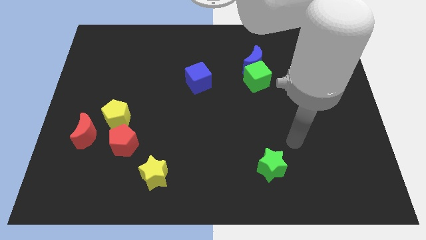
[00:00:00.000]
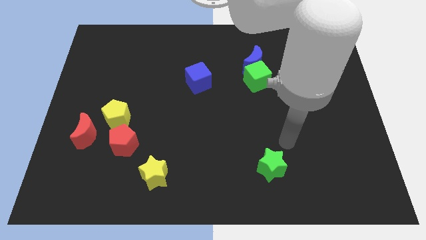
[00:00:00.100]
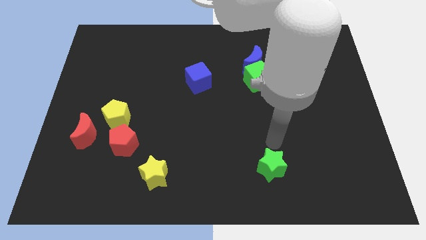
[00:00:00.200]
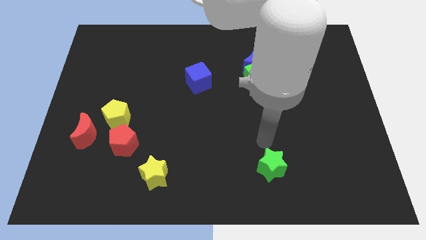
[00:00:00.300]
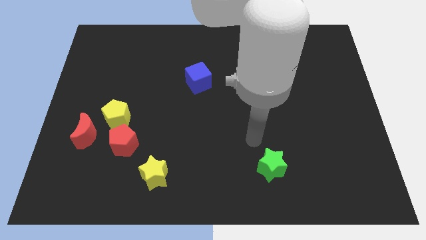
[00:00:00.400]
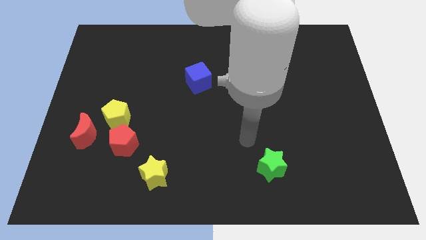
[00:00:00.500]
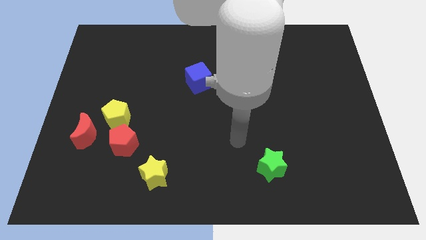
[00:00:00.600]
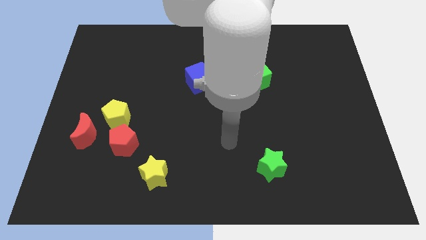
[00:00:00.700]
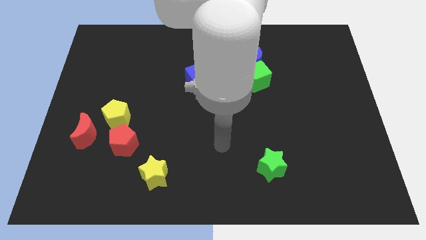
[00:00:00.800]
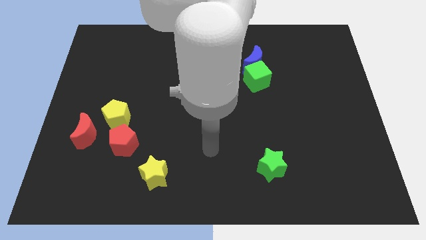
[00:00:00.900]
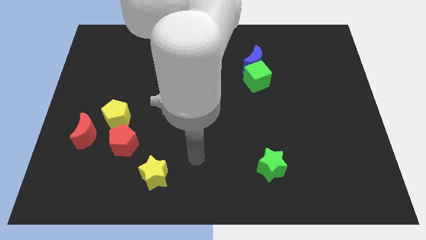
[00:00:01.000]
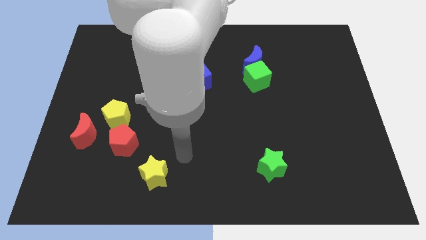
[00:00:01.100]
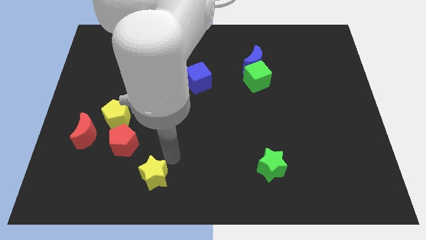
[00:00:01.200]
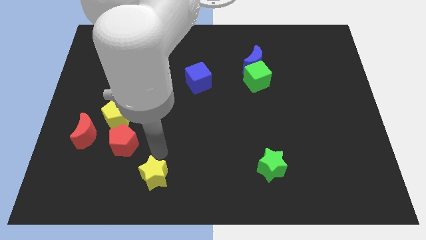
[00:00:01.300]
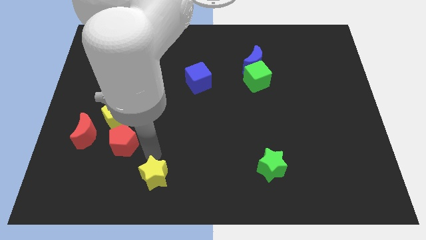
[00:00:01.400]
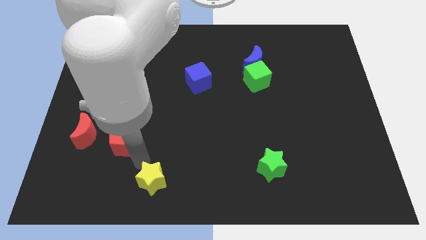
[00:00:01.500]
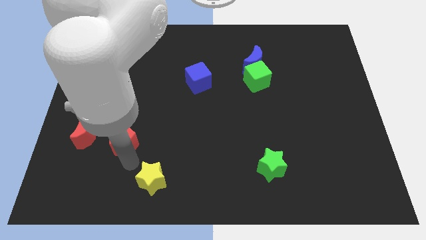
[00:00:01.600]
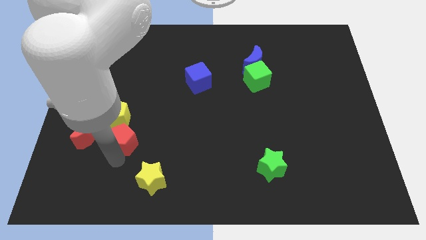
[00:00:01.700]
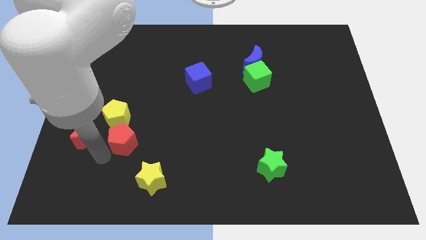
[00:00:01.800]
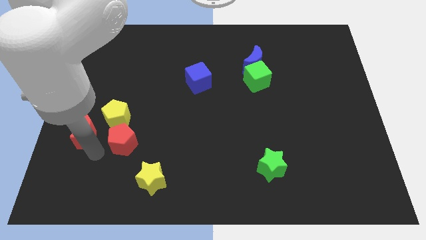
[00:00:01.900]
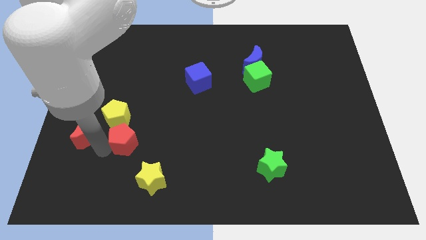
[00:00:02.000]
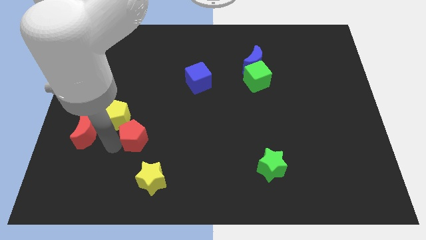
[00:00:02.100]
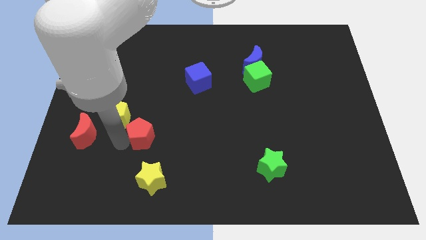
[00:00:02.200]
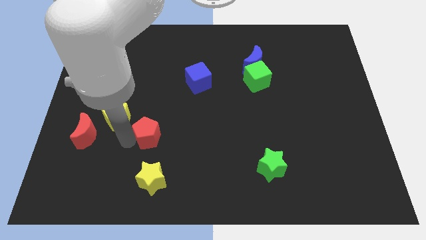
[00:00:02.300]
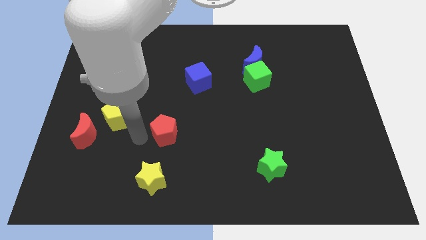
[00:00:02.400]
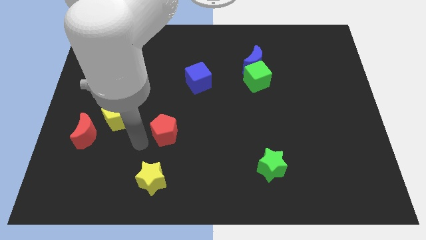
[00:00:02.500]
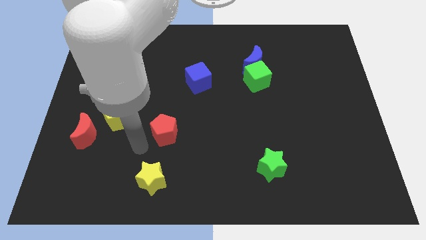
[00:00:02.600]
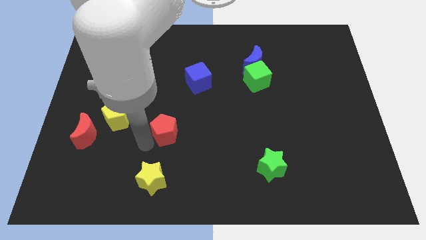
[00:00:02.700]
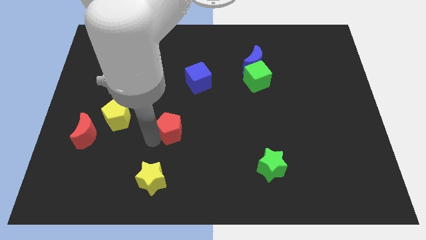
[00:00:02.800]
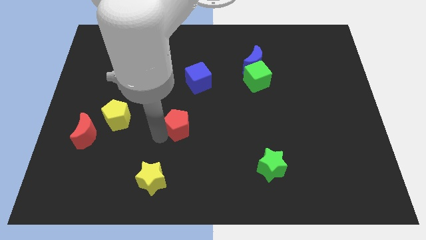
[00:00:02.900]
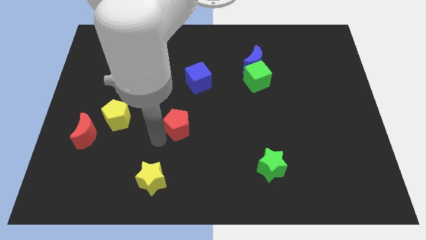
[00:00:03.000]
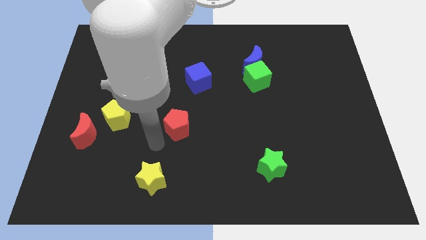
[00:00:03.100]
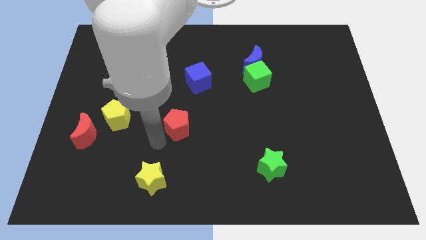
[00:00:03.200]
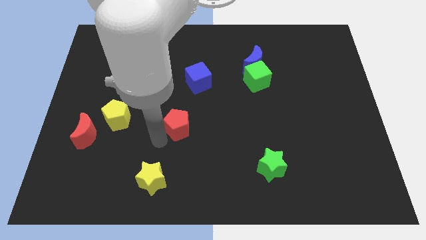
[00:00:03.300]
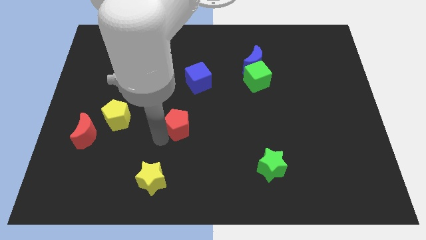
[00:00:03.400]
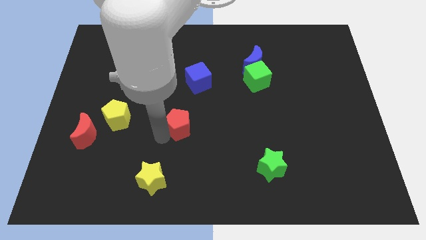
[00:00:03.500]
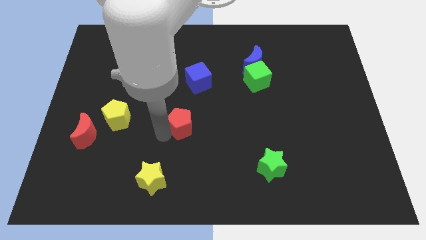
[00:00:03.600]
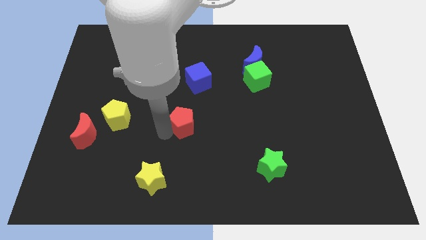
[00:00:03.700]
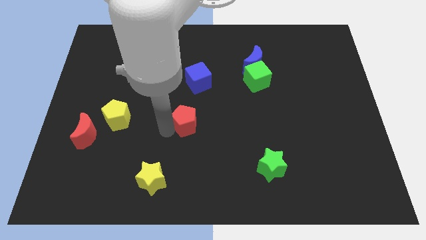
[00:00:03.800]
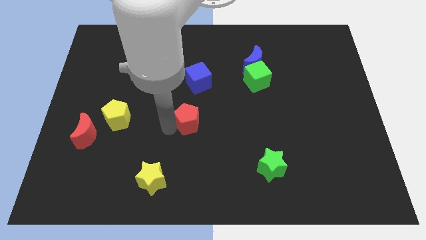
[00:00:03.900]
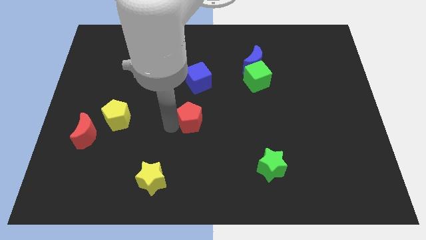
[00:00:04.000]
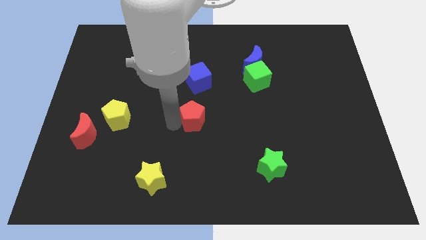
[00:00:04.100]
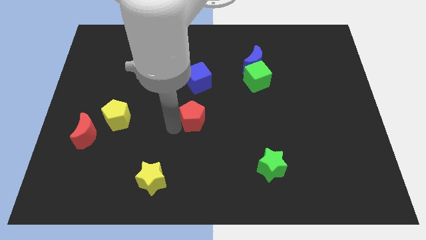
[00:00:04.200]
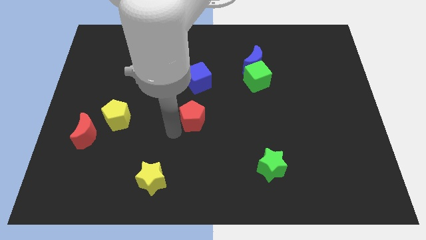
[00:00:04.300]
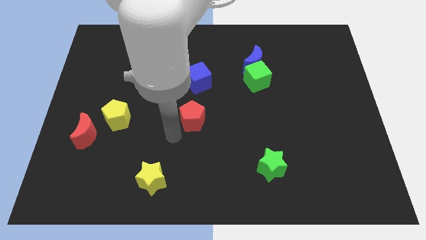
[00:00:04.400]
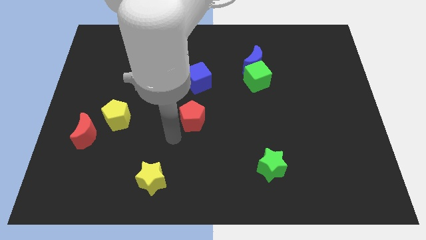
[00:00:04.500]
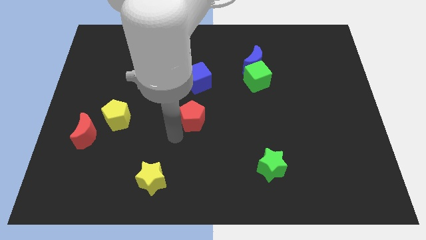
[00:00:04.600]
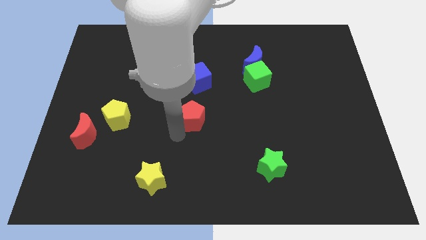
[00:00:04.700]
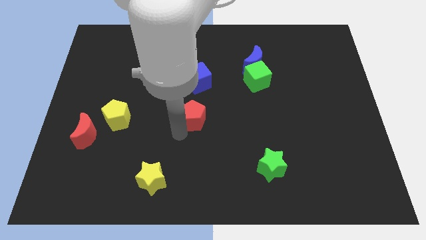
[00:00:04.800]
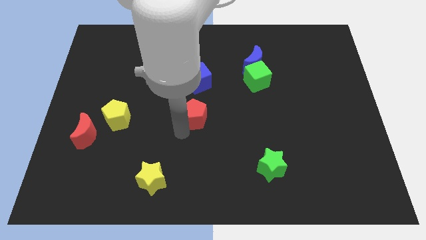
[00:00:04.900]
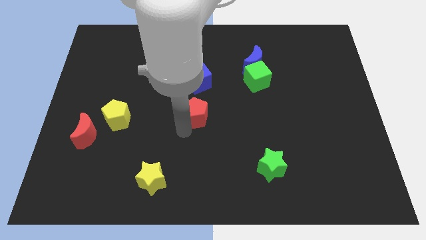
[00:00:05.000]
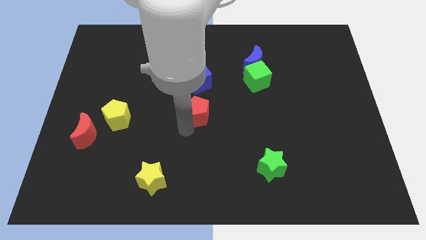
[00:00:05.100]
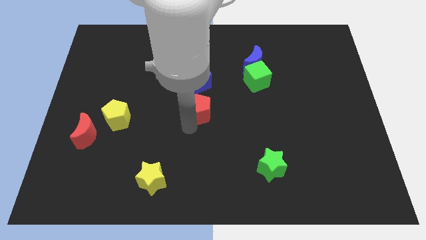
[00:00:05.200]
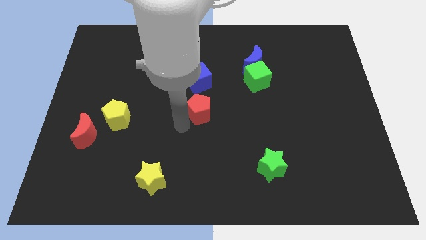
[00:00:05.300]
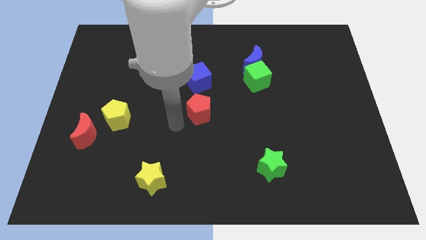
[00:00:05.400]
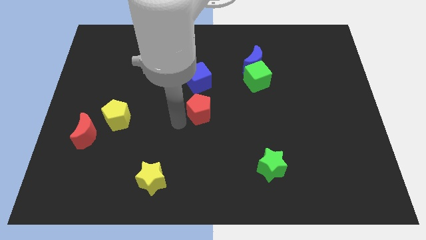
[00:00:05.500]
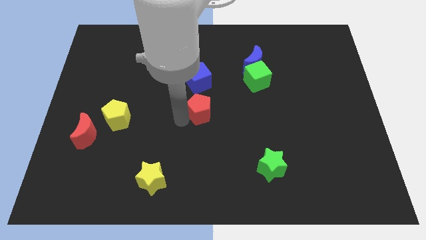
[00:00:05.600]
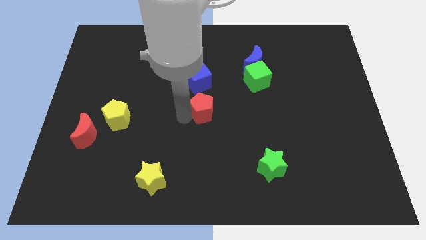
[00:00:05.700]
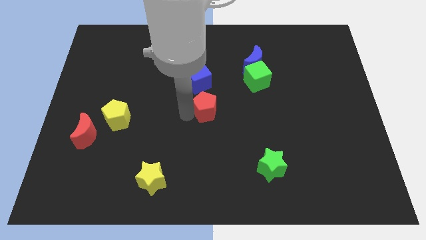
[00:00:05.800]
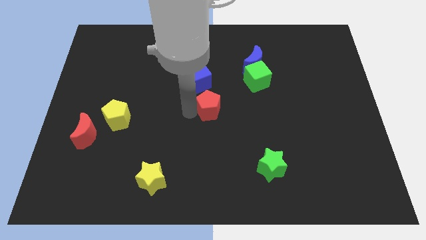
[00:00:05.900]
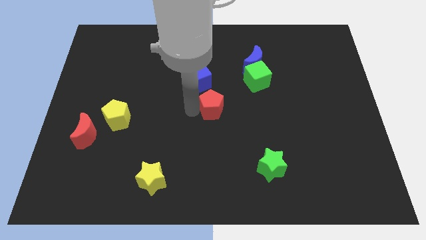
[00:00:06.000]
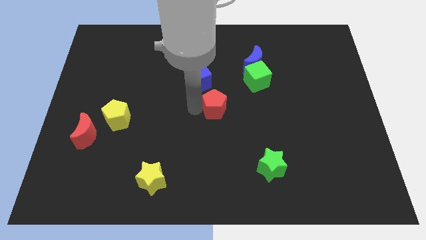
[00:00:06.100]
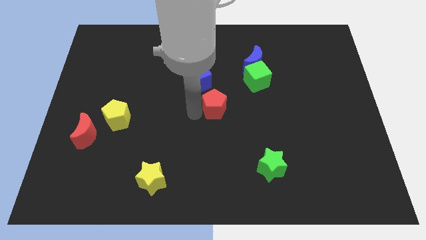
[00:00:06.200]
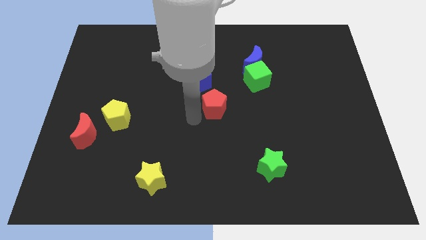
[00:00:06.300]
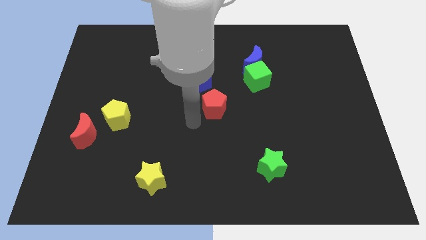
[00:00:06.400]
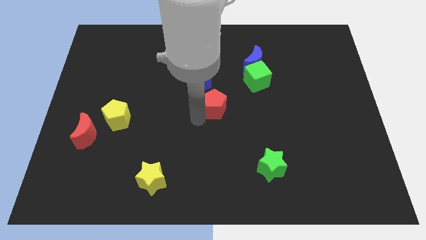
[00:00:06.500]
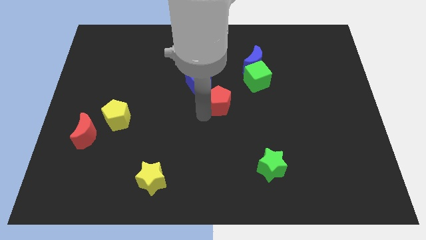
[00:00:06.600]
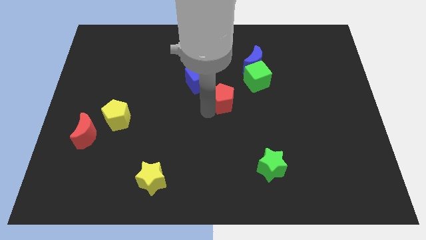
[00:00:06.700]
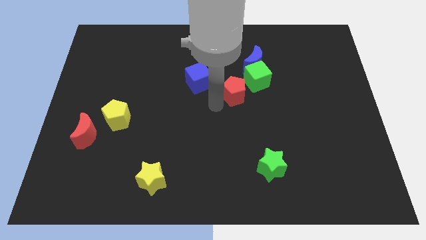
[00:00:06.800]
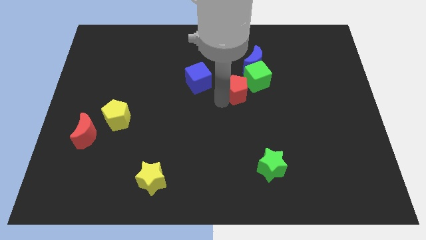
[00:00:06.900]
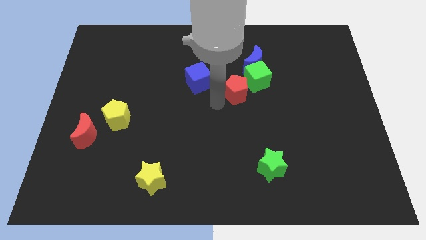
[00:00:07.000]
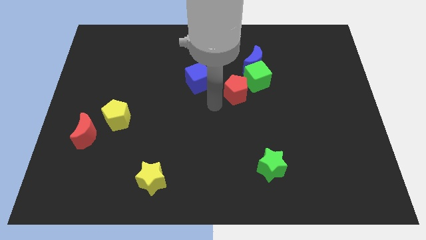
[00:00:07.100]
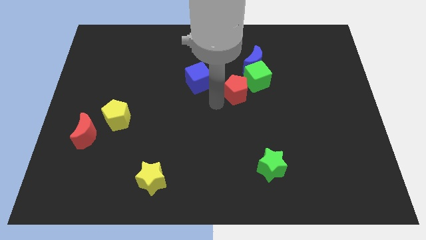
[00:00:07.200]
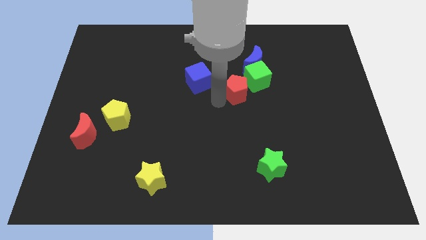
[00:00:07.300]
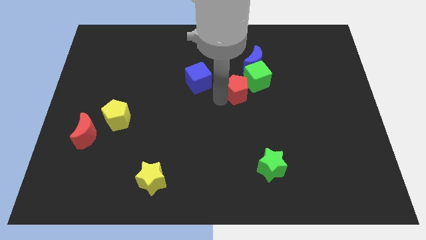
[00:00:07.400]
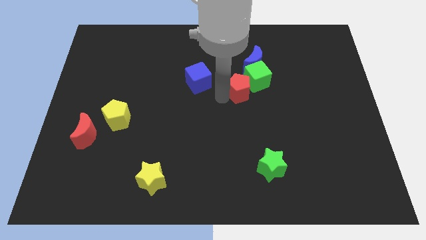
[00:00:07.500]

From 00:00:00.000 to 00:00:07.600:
slide the red pentagon close to the green cube
